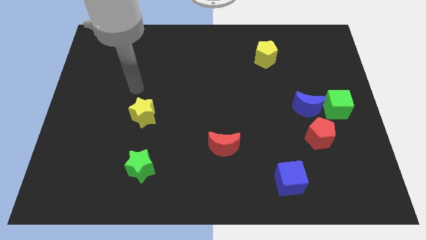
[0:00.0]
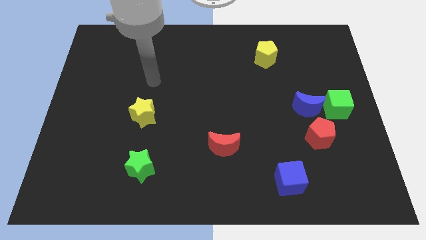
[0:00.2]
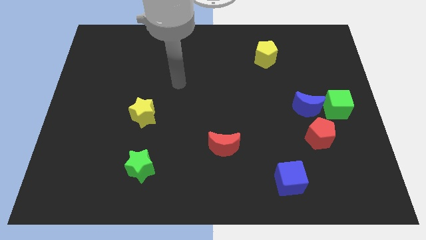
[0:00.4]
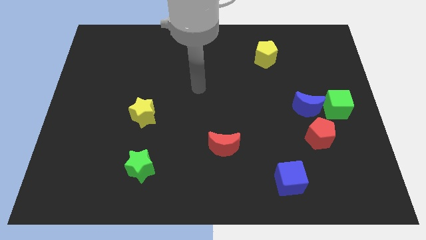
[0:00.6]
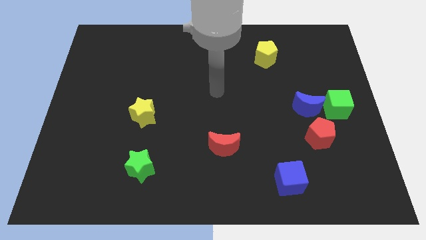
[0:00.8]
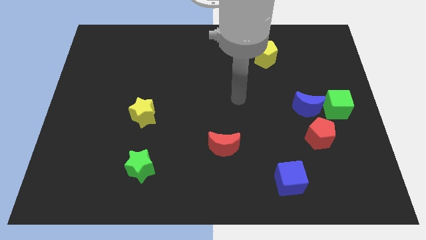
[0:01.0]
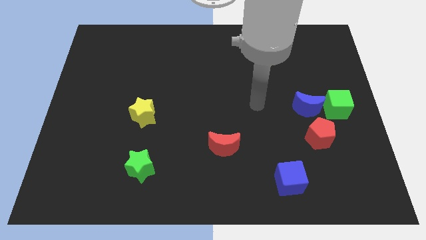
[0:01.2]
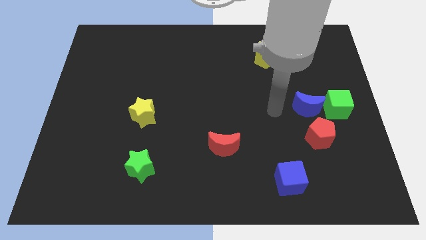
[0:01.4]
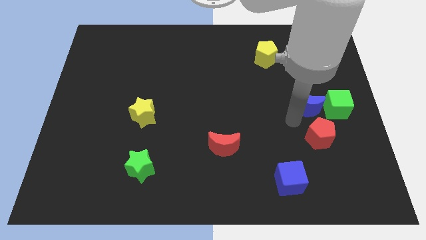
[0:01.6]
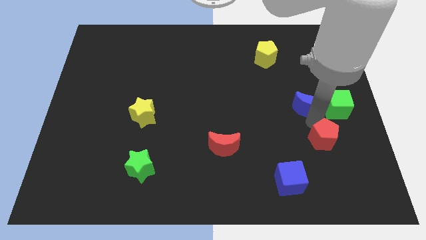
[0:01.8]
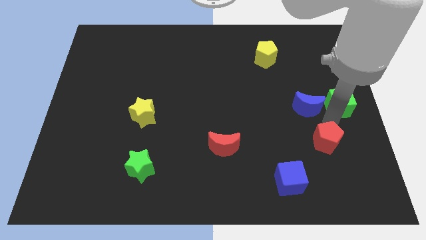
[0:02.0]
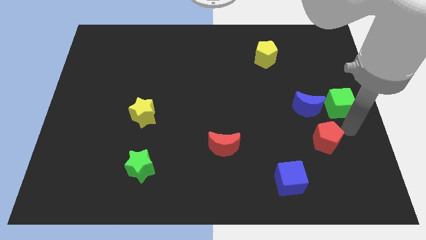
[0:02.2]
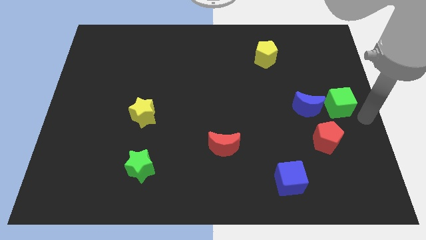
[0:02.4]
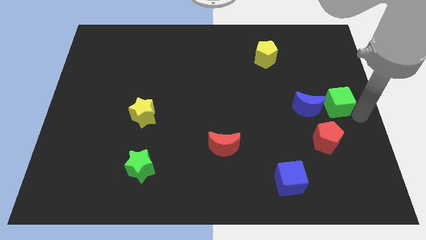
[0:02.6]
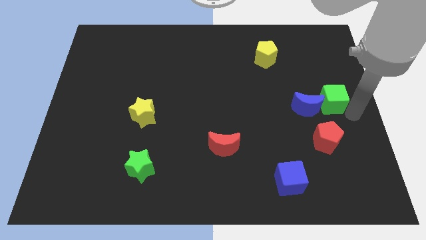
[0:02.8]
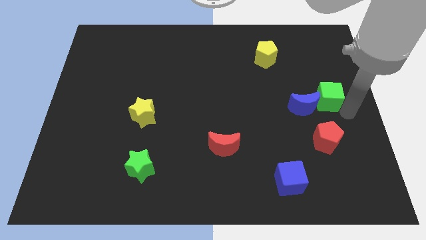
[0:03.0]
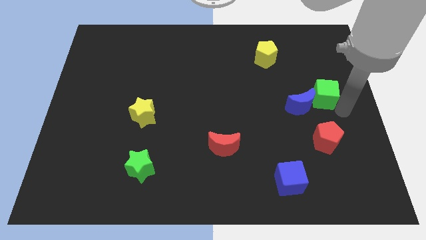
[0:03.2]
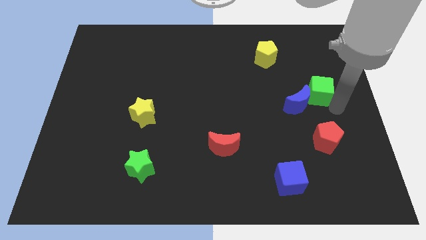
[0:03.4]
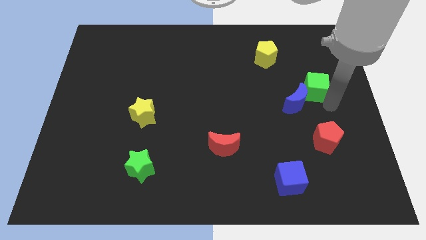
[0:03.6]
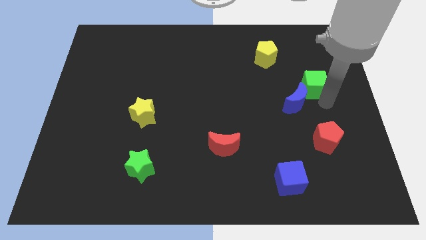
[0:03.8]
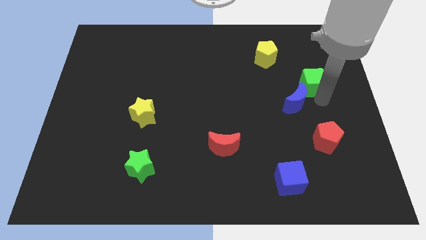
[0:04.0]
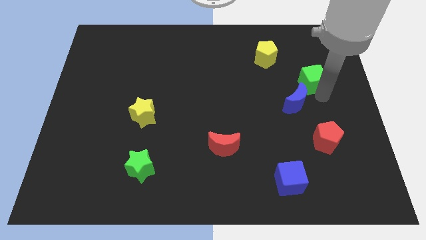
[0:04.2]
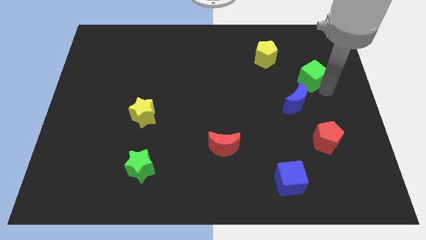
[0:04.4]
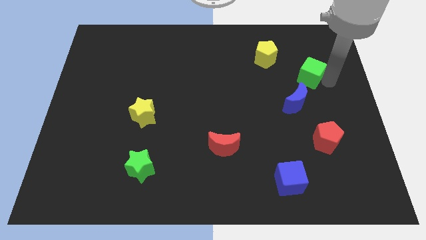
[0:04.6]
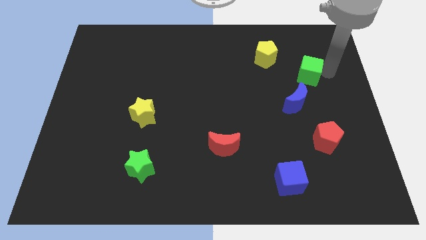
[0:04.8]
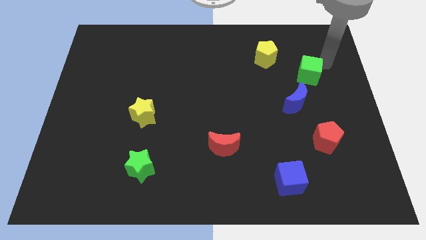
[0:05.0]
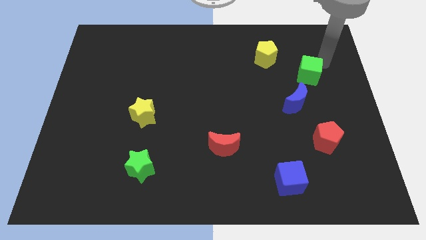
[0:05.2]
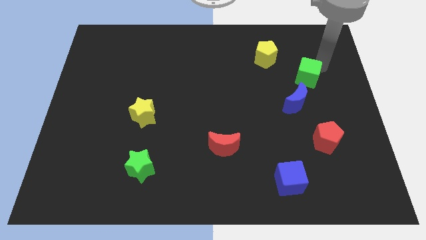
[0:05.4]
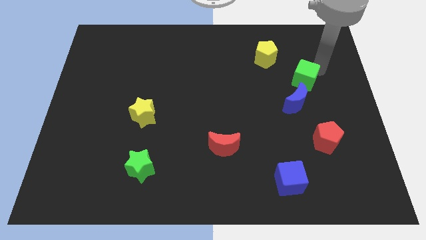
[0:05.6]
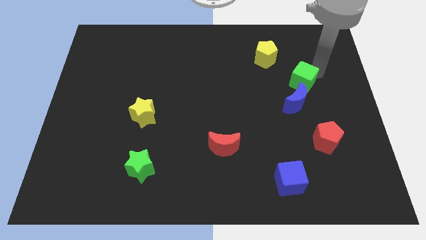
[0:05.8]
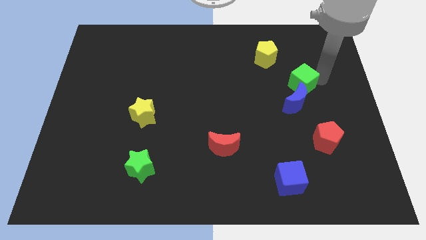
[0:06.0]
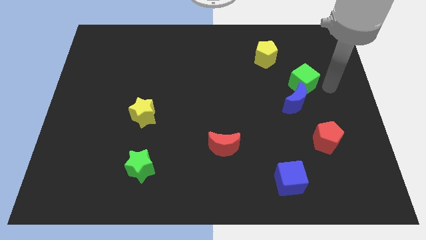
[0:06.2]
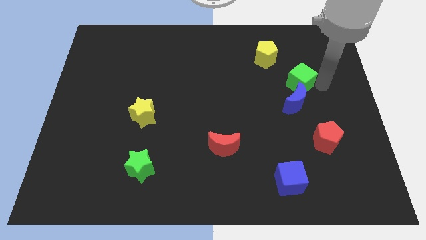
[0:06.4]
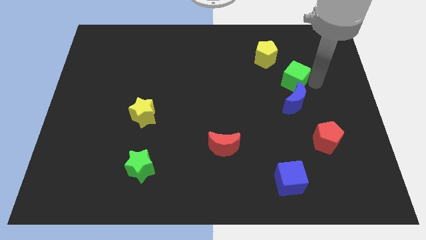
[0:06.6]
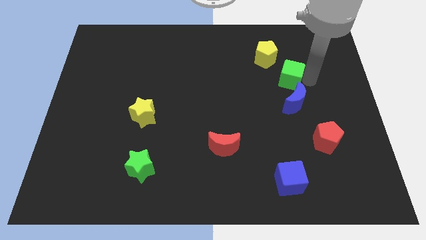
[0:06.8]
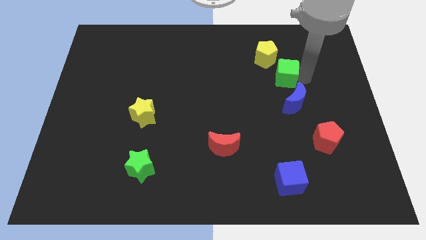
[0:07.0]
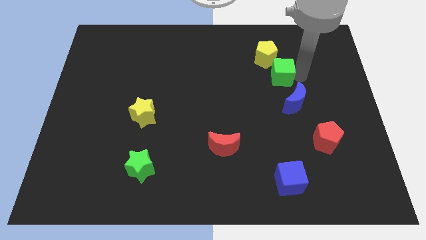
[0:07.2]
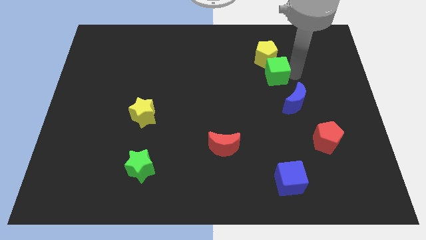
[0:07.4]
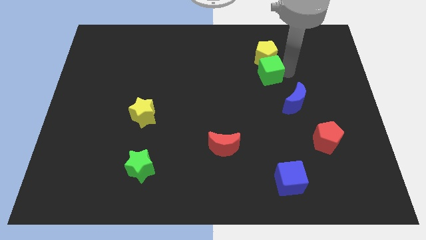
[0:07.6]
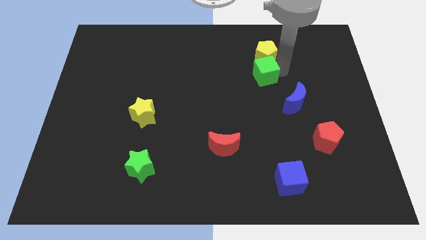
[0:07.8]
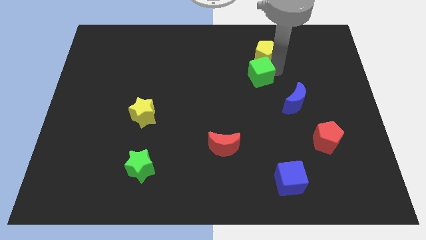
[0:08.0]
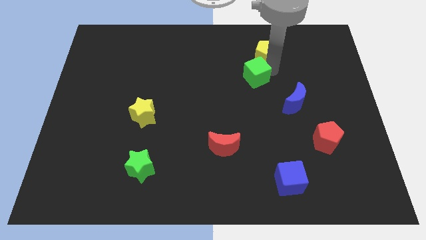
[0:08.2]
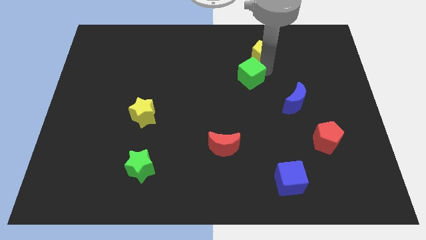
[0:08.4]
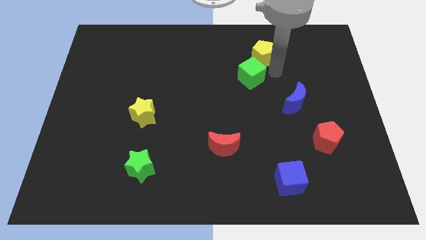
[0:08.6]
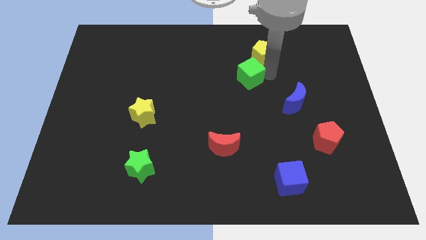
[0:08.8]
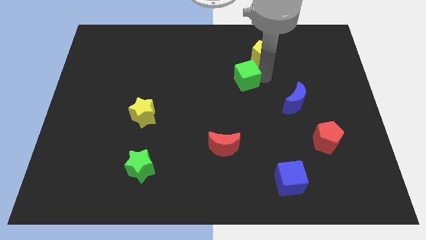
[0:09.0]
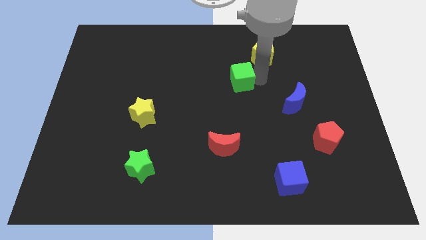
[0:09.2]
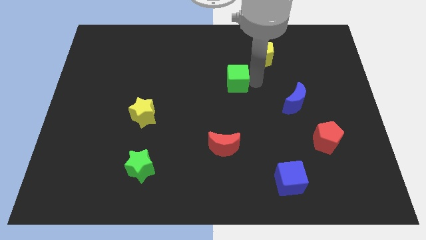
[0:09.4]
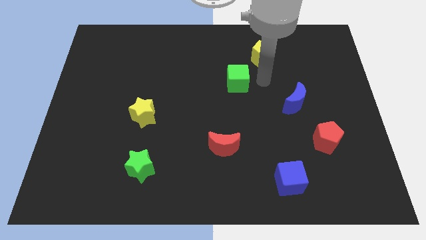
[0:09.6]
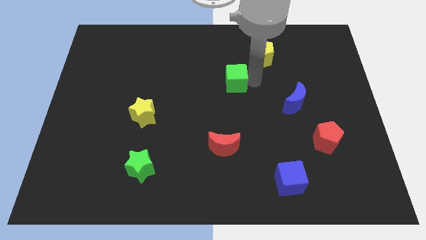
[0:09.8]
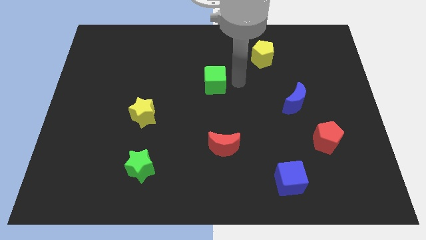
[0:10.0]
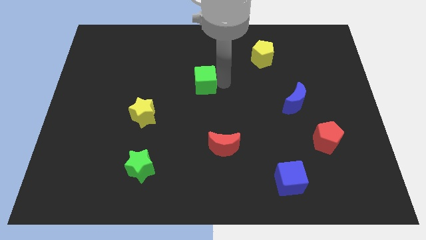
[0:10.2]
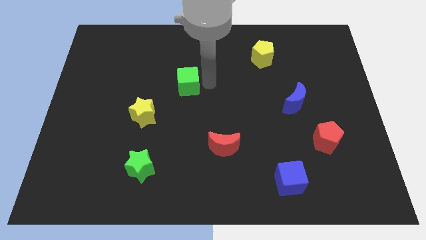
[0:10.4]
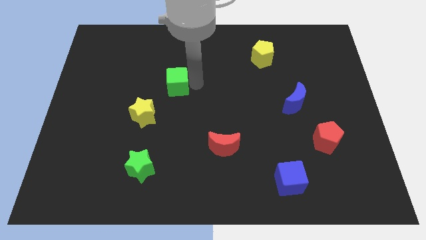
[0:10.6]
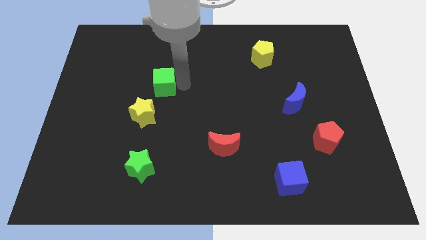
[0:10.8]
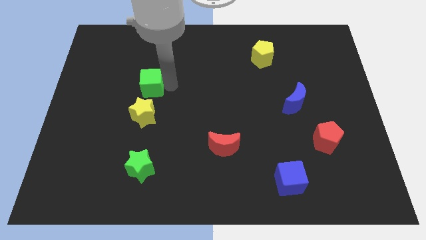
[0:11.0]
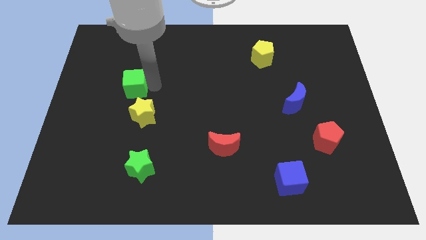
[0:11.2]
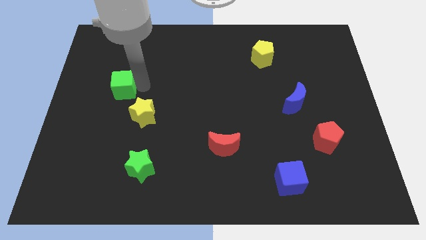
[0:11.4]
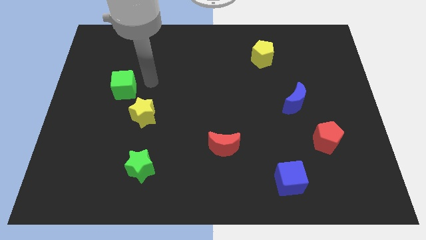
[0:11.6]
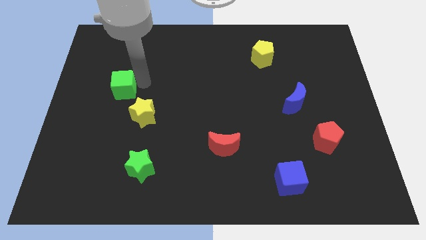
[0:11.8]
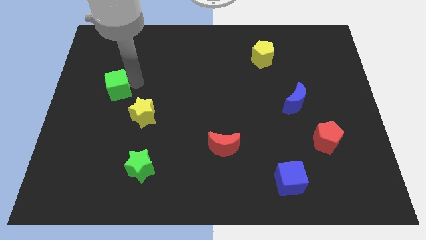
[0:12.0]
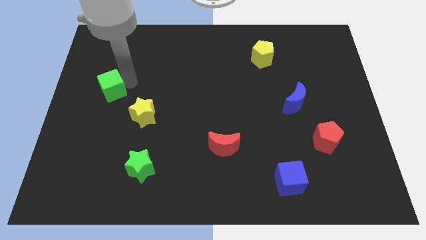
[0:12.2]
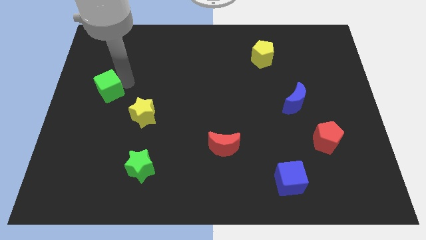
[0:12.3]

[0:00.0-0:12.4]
move the green cube to the left side of the board

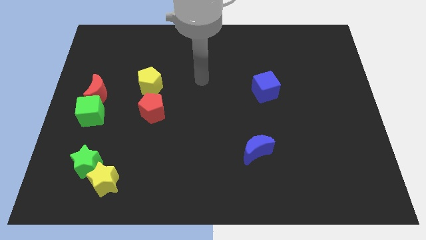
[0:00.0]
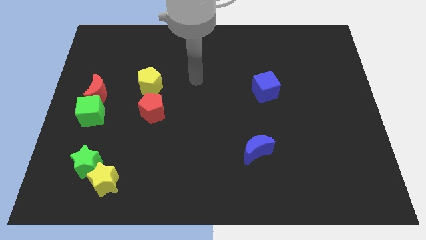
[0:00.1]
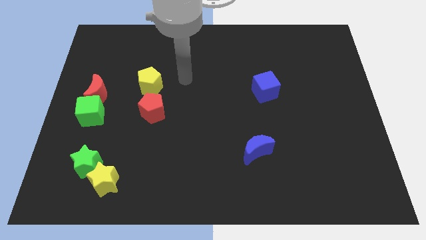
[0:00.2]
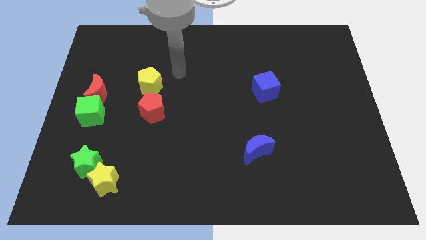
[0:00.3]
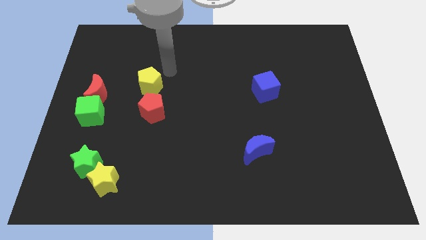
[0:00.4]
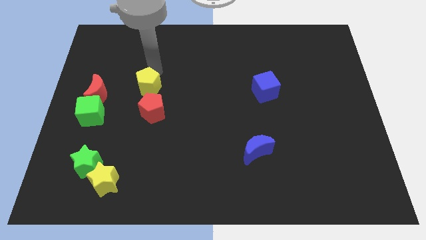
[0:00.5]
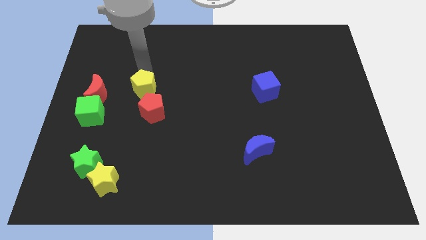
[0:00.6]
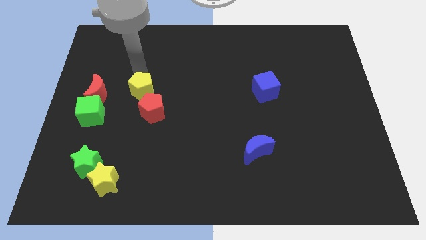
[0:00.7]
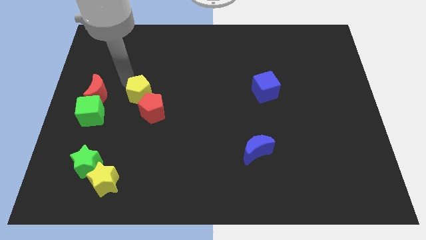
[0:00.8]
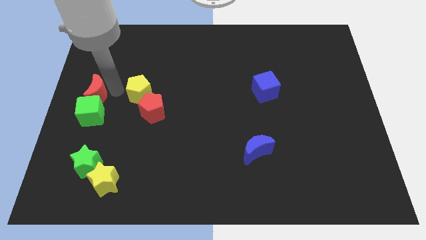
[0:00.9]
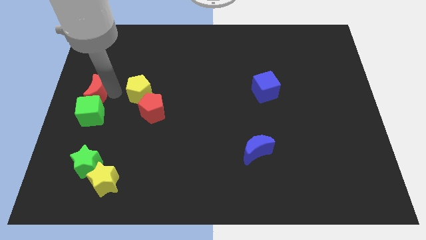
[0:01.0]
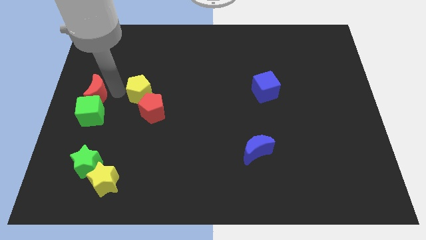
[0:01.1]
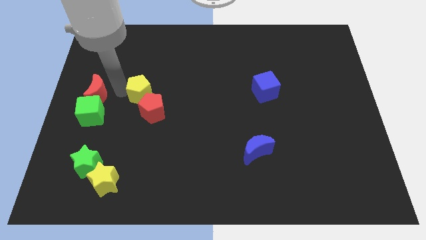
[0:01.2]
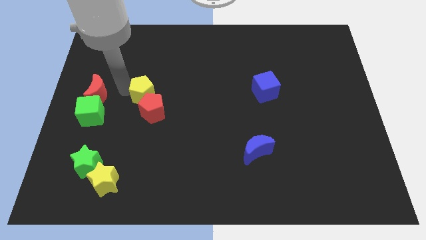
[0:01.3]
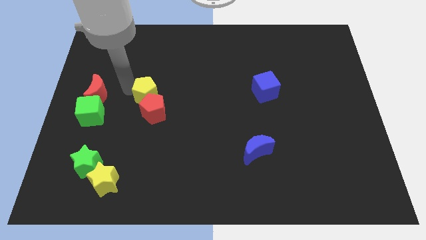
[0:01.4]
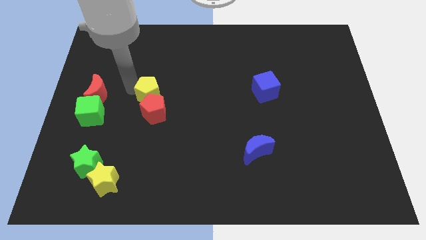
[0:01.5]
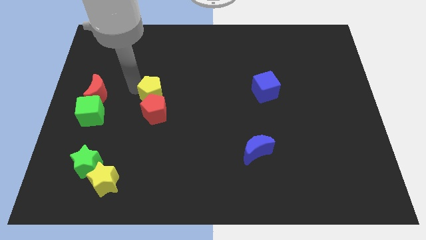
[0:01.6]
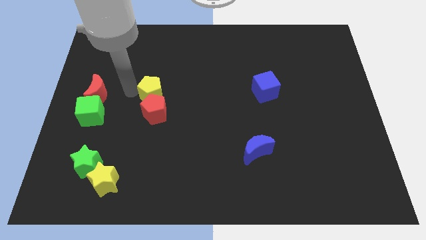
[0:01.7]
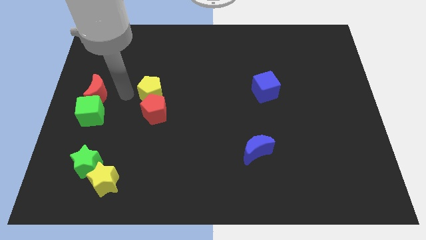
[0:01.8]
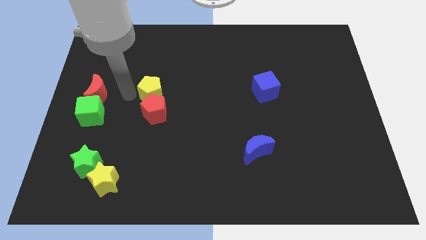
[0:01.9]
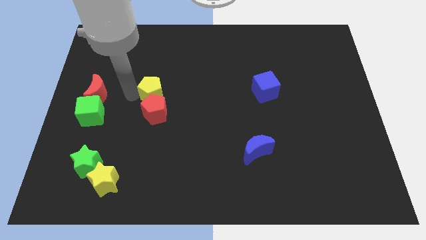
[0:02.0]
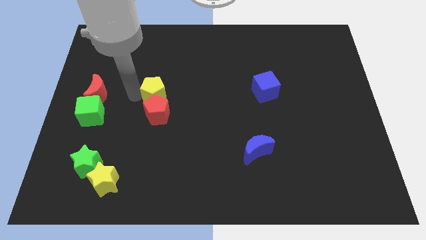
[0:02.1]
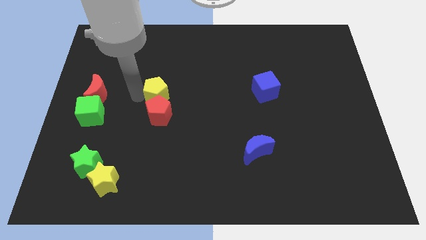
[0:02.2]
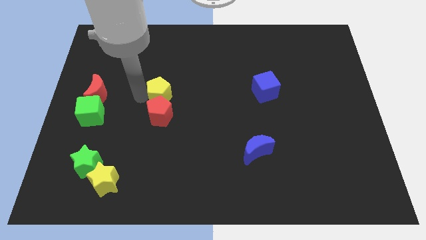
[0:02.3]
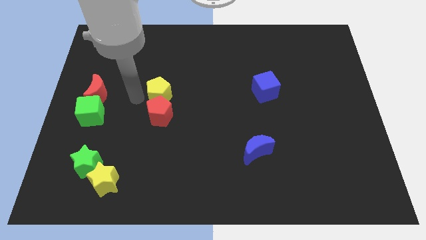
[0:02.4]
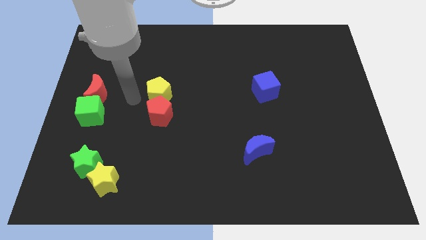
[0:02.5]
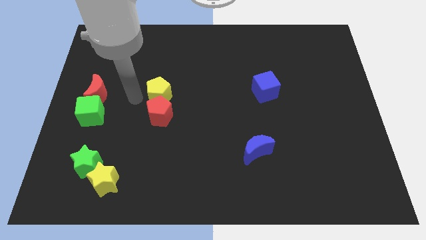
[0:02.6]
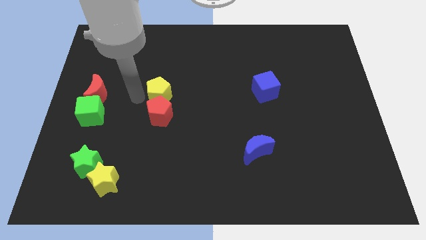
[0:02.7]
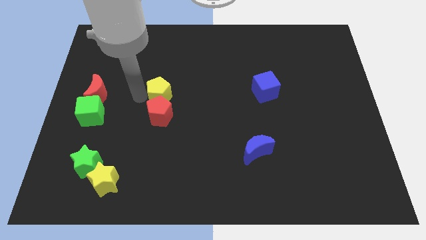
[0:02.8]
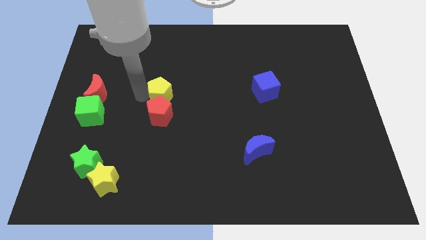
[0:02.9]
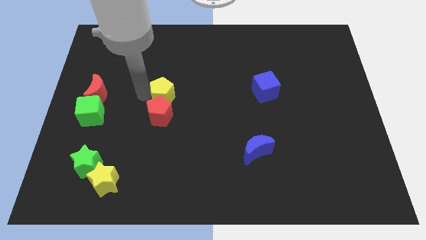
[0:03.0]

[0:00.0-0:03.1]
slide the yellow pentagon to the middle of the board
